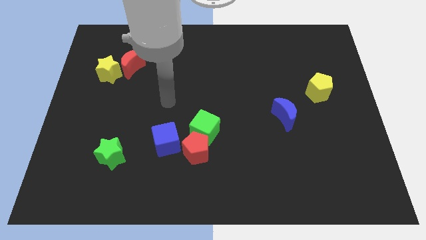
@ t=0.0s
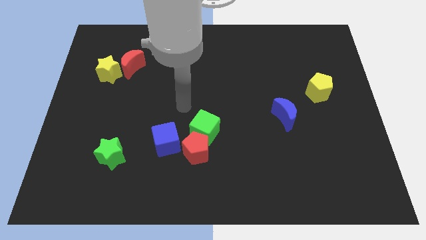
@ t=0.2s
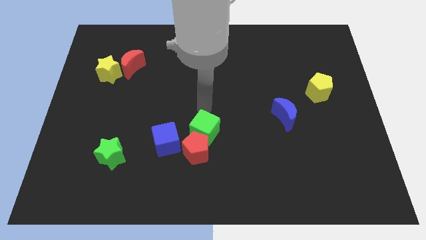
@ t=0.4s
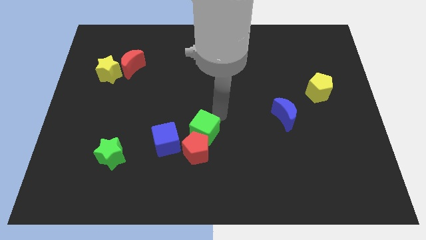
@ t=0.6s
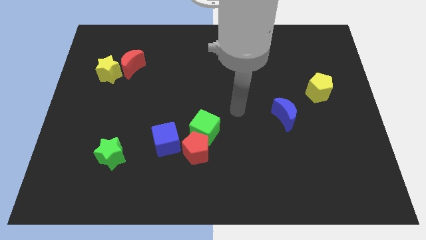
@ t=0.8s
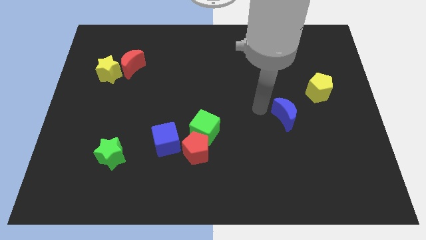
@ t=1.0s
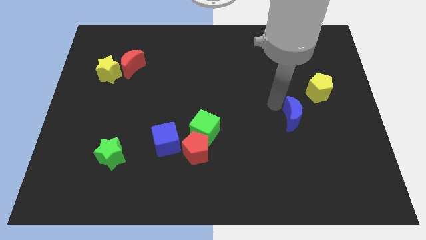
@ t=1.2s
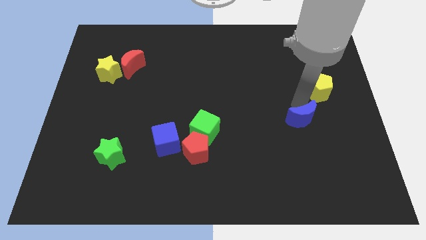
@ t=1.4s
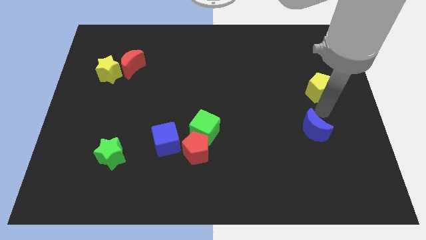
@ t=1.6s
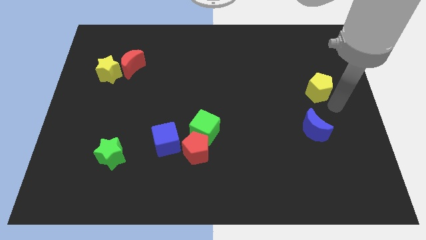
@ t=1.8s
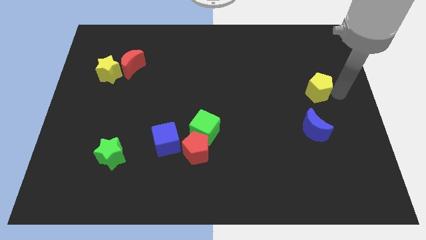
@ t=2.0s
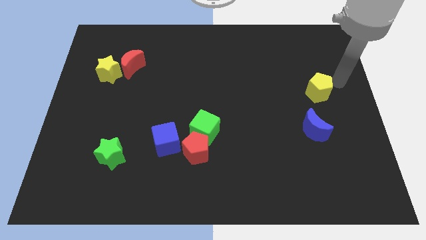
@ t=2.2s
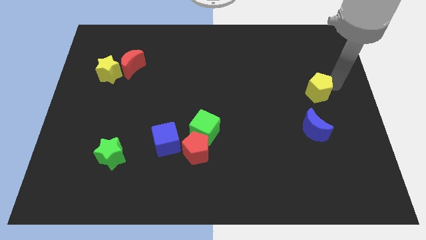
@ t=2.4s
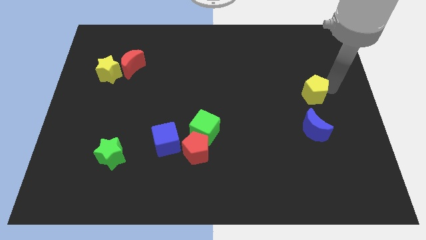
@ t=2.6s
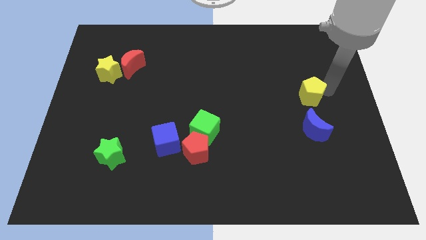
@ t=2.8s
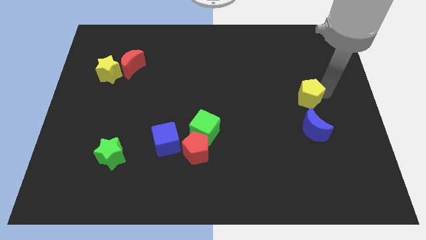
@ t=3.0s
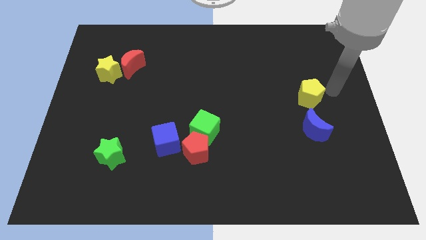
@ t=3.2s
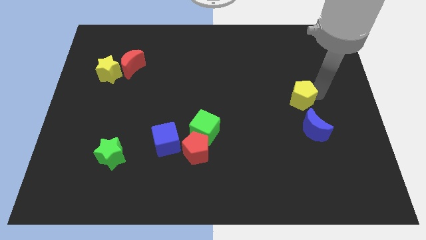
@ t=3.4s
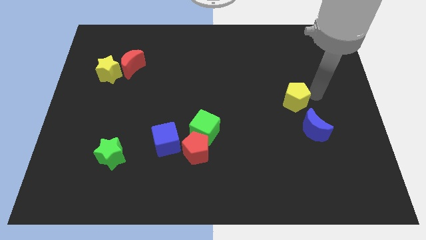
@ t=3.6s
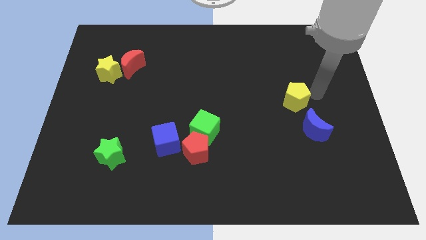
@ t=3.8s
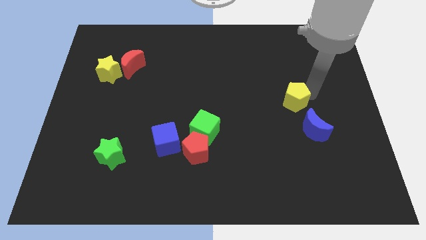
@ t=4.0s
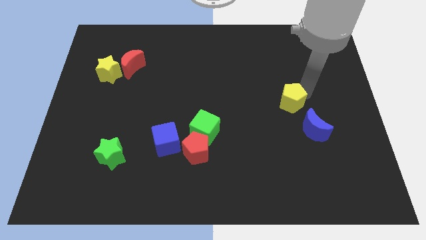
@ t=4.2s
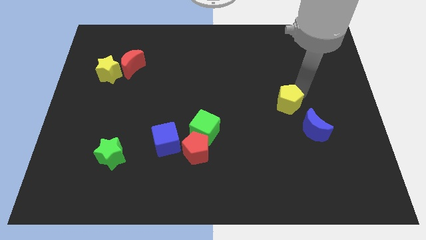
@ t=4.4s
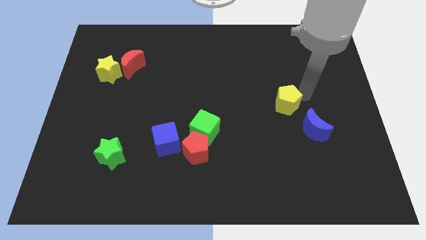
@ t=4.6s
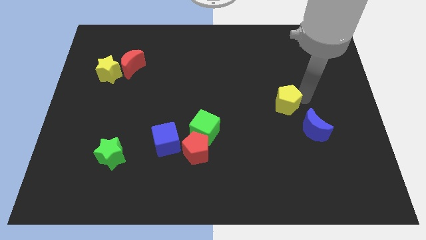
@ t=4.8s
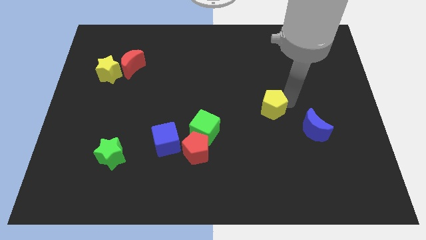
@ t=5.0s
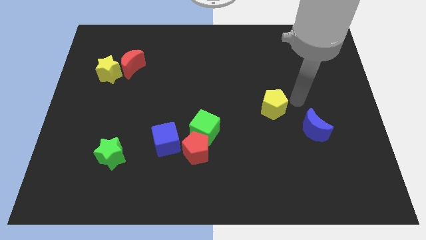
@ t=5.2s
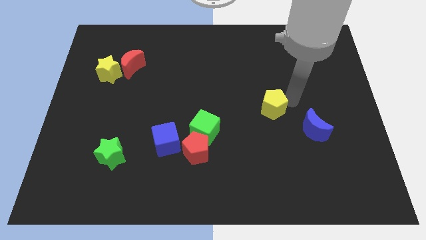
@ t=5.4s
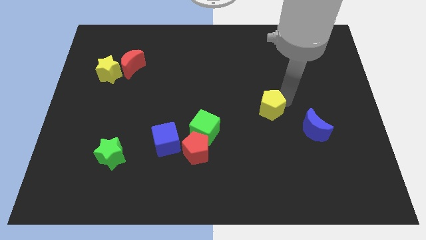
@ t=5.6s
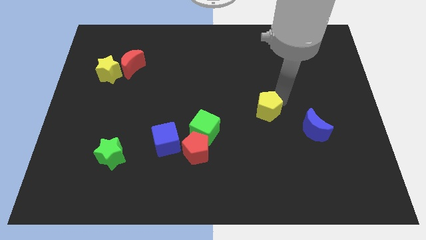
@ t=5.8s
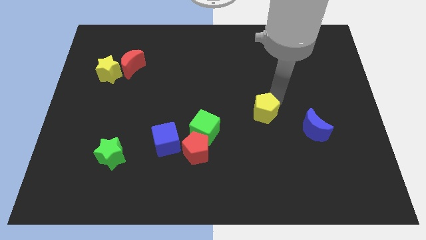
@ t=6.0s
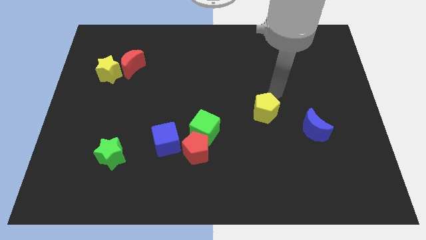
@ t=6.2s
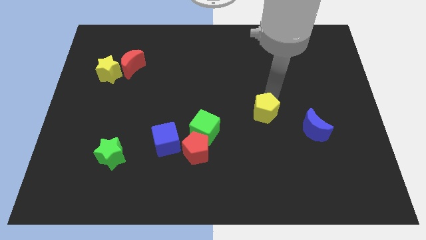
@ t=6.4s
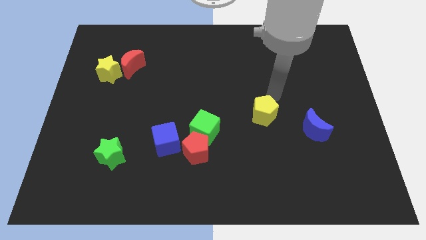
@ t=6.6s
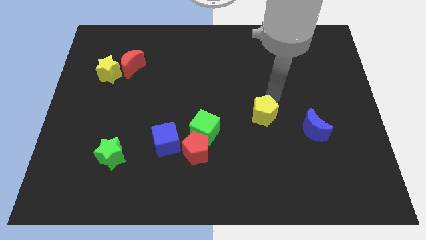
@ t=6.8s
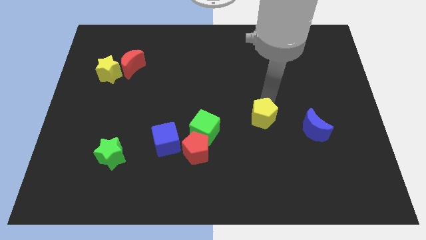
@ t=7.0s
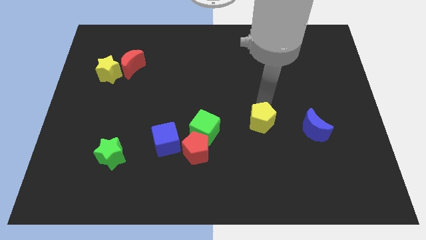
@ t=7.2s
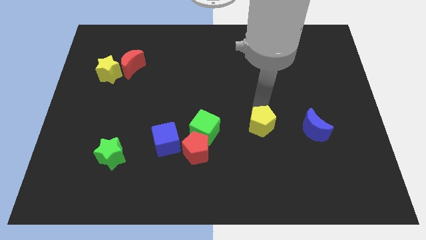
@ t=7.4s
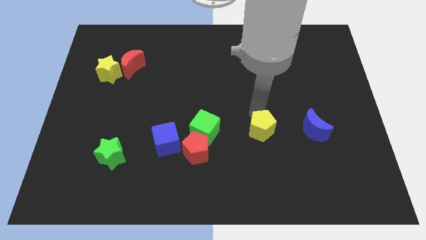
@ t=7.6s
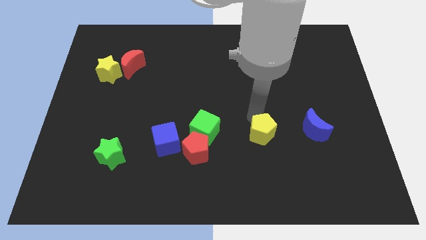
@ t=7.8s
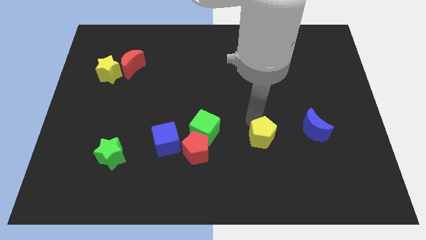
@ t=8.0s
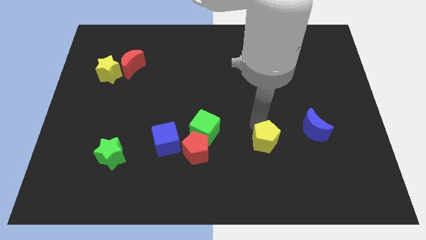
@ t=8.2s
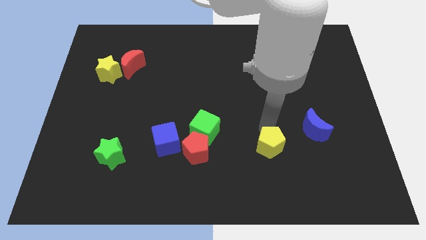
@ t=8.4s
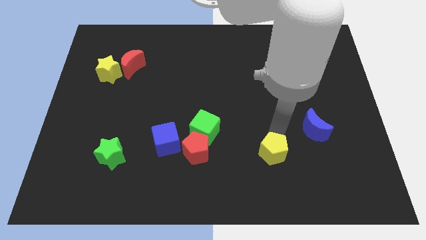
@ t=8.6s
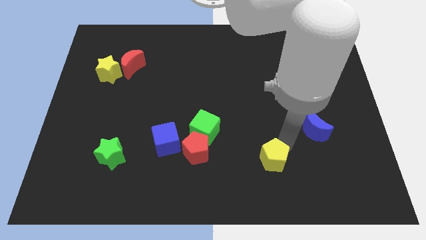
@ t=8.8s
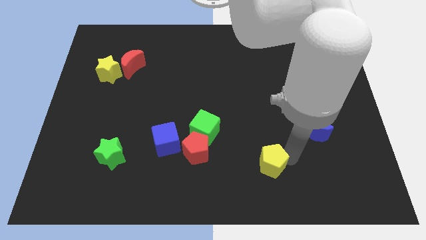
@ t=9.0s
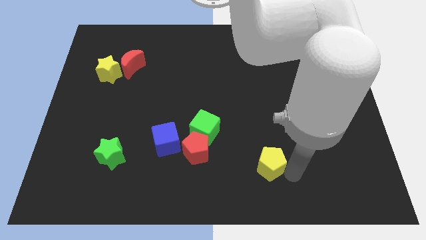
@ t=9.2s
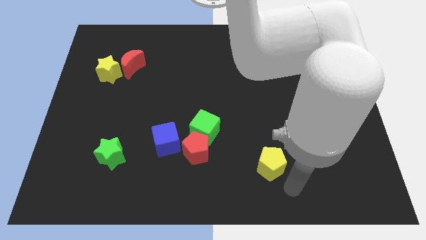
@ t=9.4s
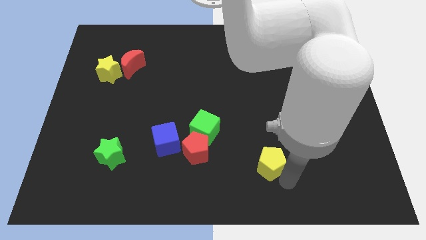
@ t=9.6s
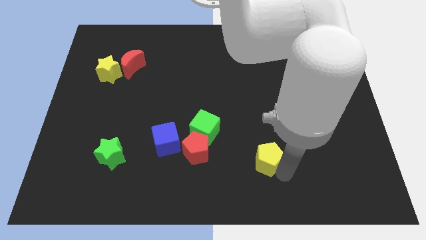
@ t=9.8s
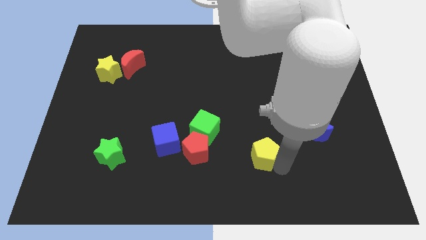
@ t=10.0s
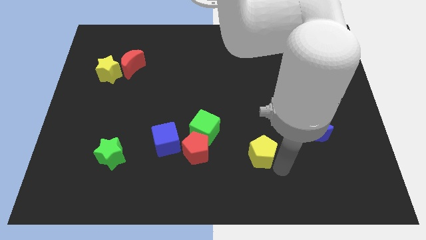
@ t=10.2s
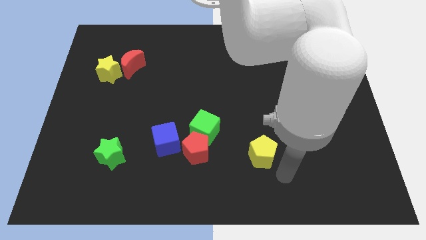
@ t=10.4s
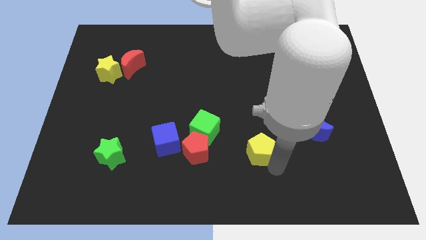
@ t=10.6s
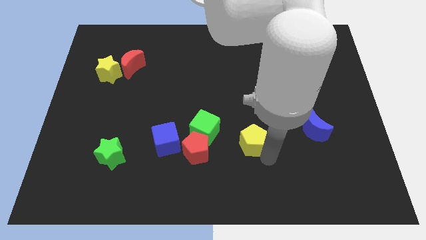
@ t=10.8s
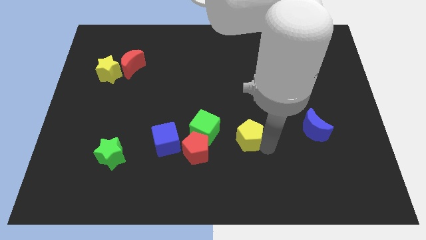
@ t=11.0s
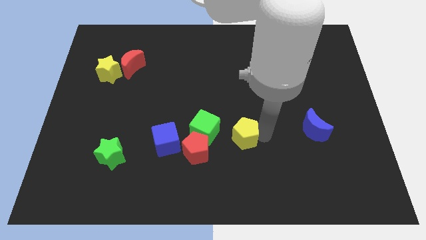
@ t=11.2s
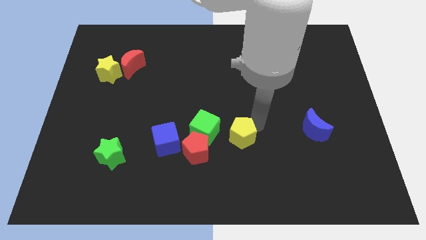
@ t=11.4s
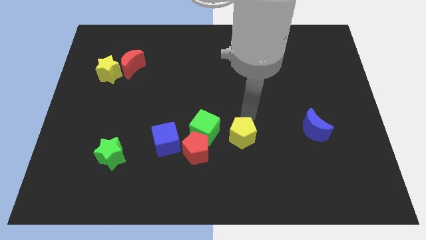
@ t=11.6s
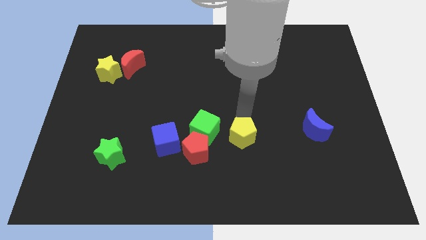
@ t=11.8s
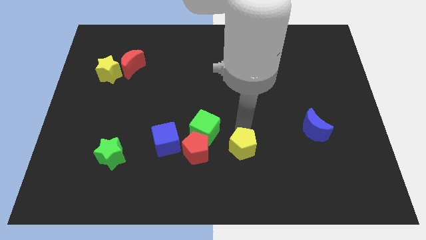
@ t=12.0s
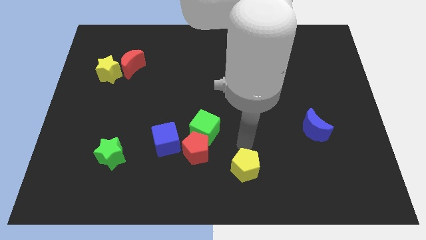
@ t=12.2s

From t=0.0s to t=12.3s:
push the yellow pentagon to the bottom

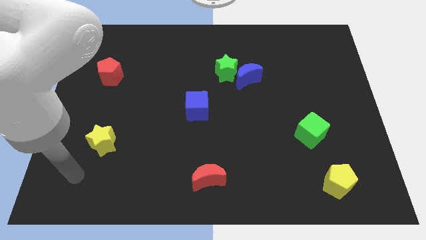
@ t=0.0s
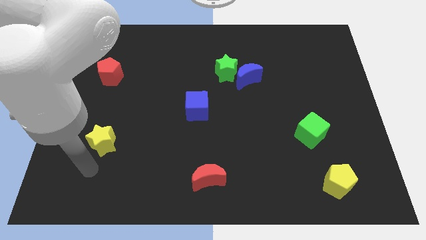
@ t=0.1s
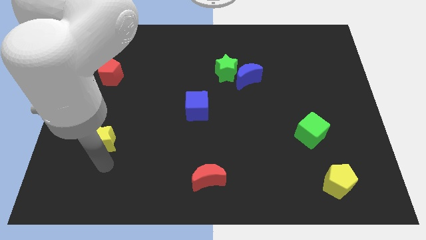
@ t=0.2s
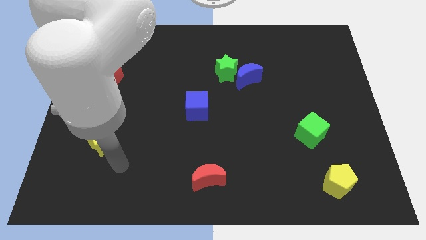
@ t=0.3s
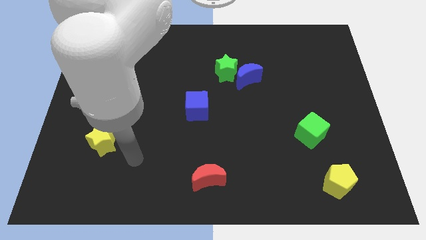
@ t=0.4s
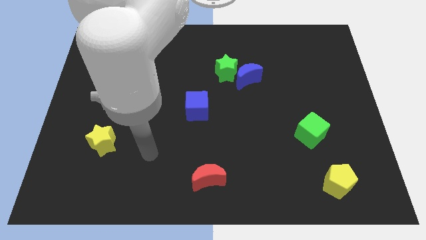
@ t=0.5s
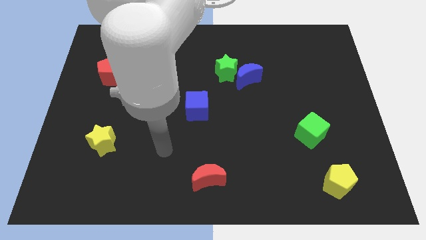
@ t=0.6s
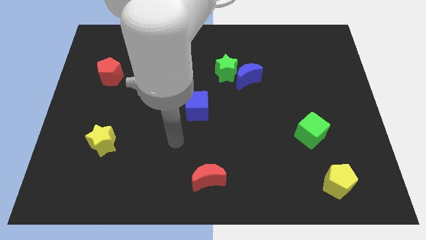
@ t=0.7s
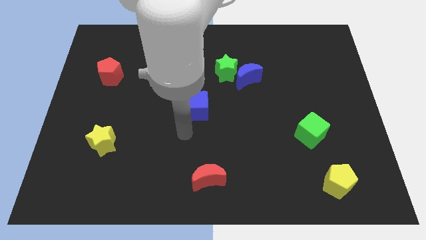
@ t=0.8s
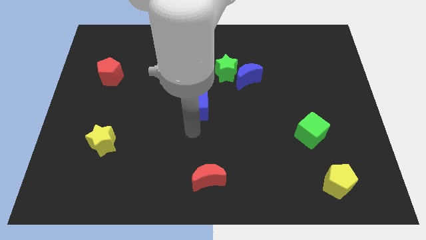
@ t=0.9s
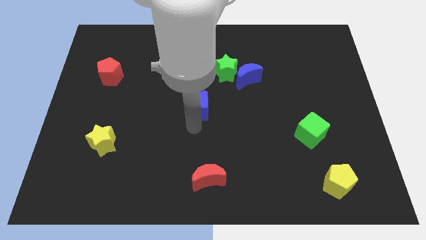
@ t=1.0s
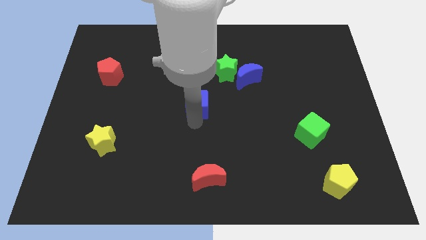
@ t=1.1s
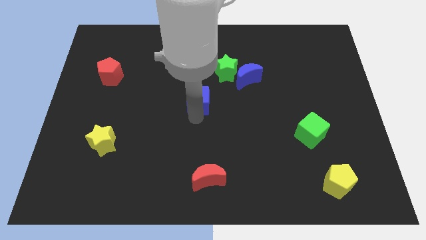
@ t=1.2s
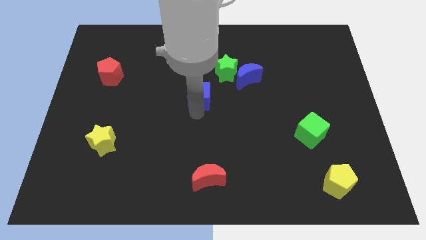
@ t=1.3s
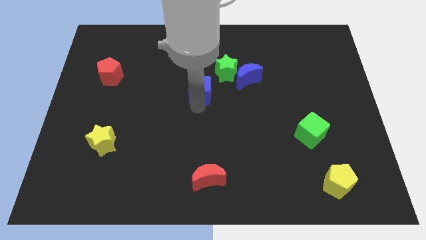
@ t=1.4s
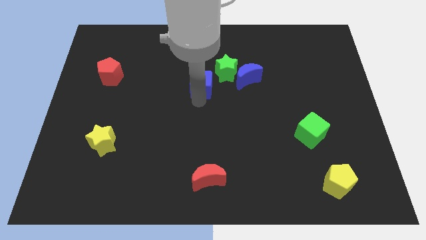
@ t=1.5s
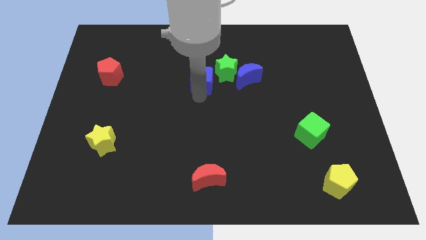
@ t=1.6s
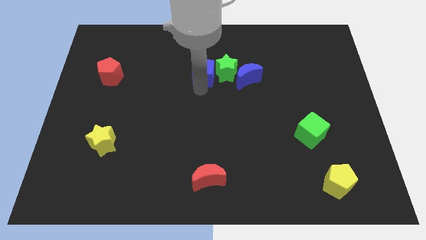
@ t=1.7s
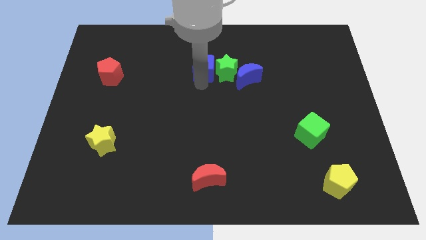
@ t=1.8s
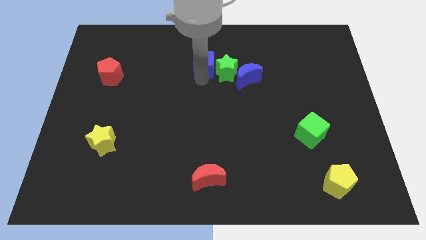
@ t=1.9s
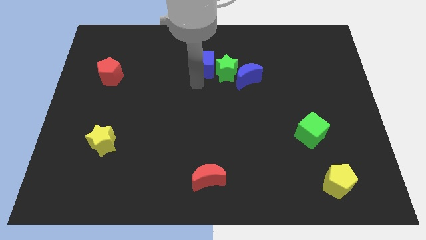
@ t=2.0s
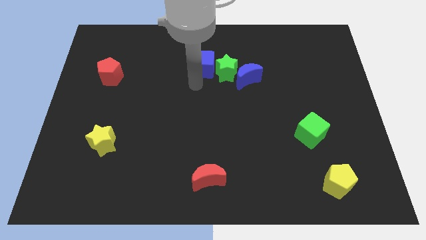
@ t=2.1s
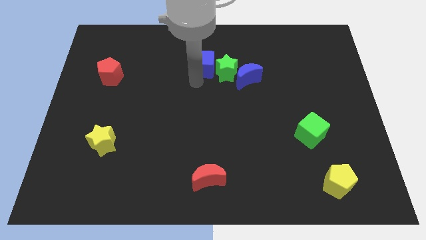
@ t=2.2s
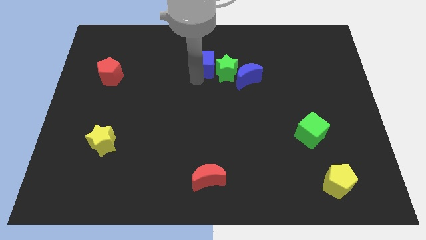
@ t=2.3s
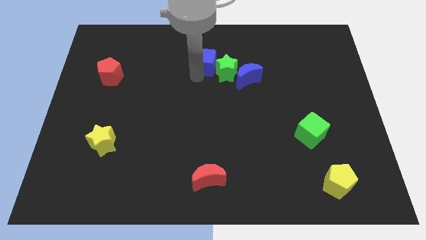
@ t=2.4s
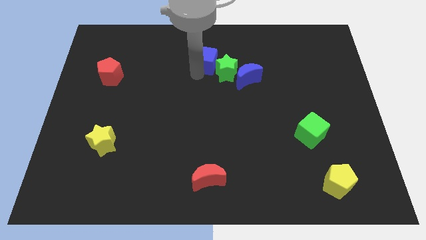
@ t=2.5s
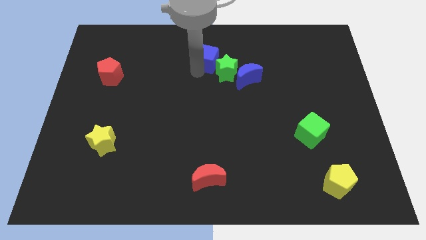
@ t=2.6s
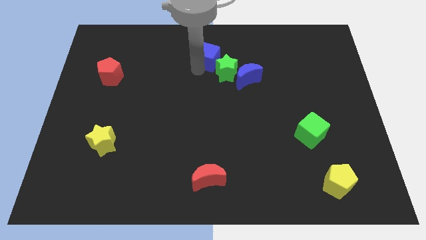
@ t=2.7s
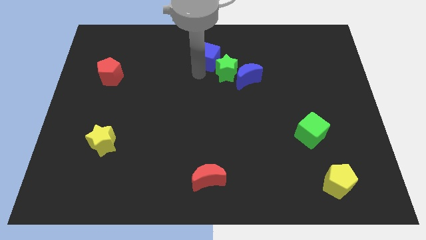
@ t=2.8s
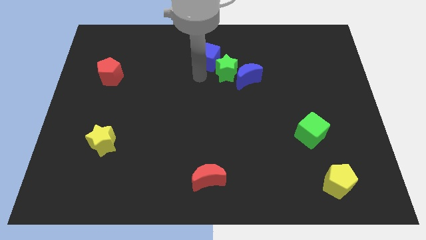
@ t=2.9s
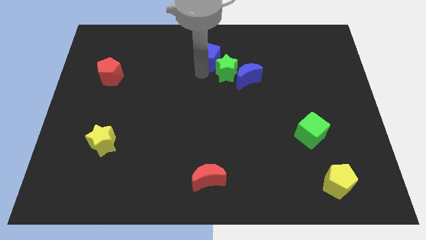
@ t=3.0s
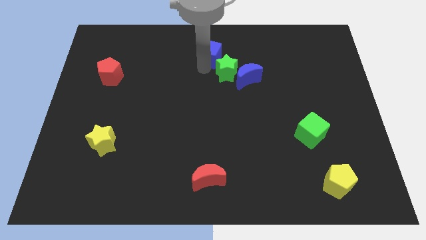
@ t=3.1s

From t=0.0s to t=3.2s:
slide the blue cube to the top
